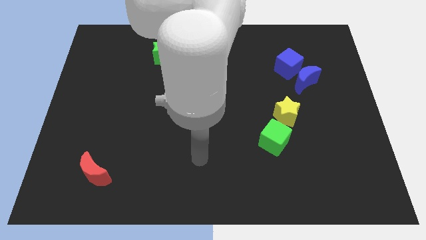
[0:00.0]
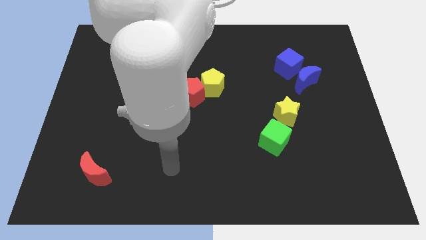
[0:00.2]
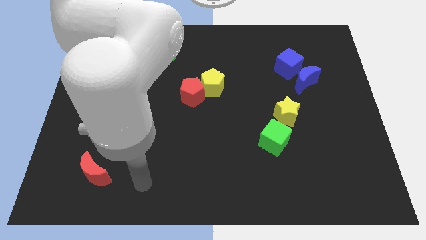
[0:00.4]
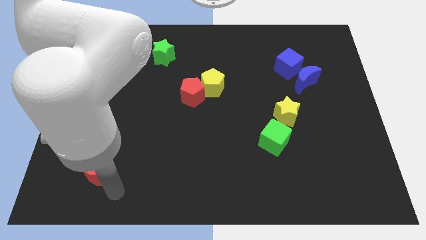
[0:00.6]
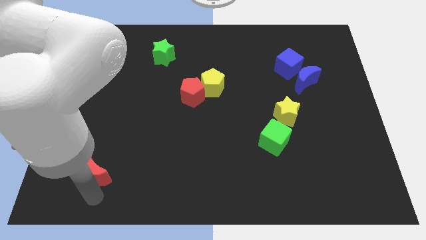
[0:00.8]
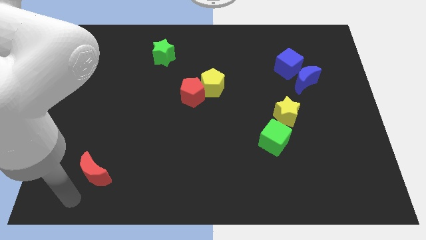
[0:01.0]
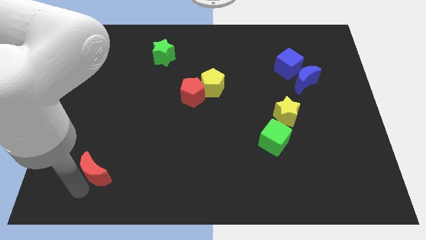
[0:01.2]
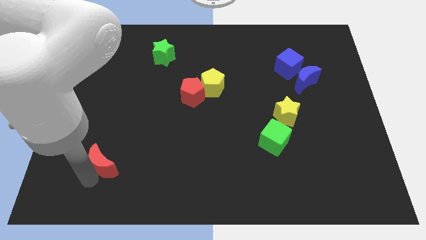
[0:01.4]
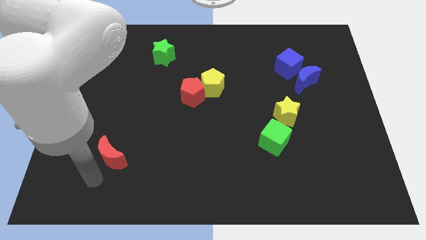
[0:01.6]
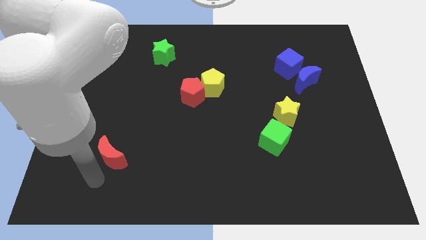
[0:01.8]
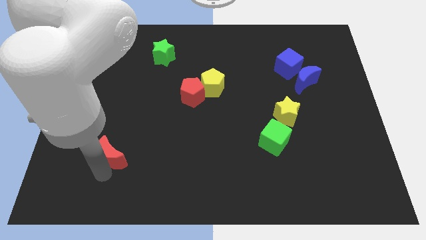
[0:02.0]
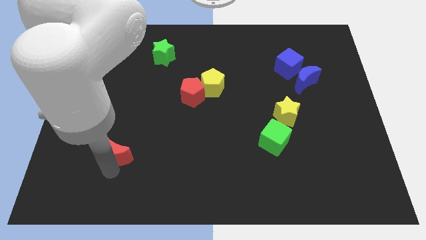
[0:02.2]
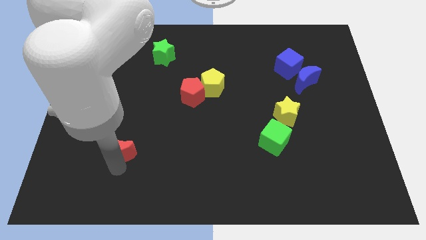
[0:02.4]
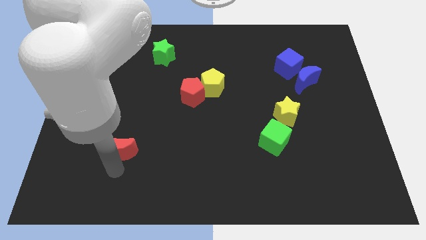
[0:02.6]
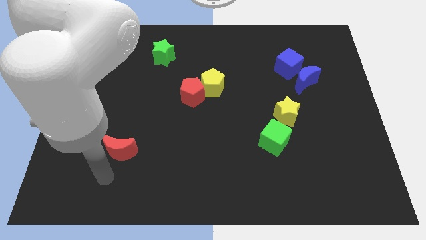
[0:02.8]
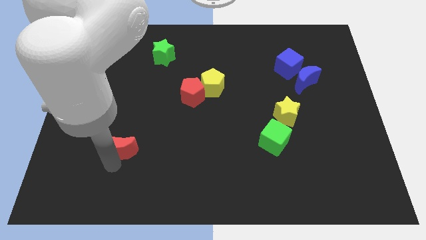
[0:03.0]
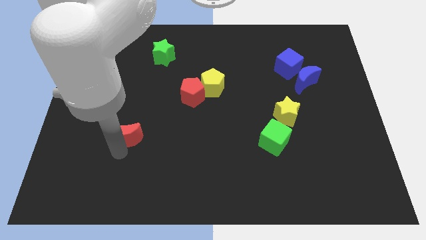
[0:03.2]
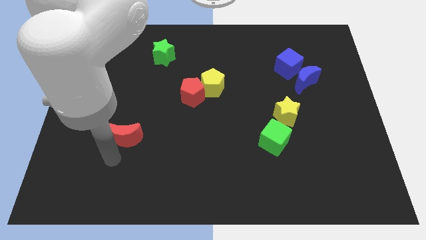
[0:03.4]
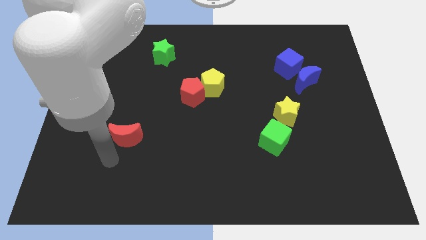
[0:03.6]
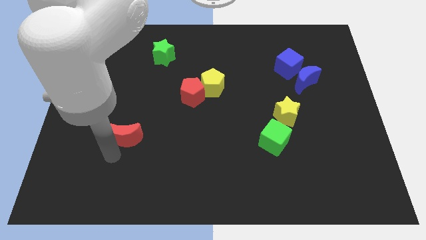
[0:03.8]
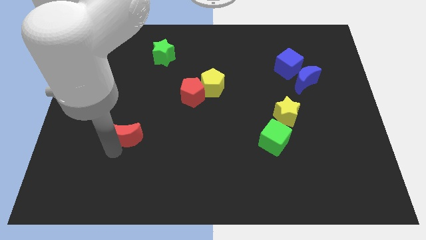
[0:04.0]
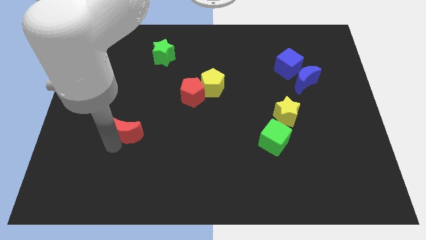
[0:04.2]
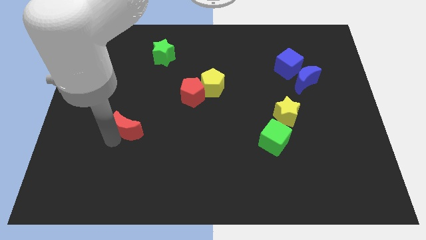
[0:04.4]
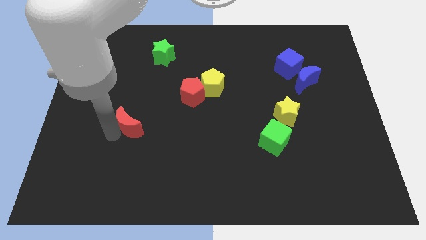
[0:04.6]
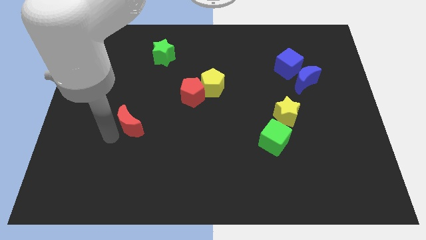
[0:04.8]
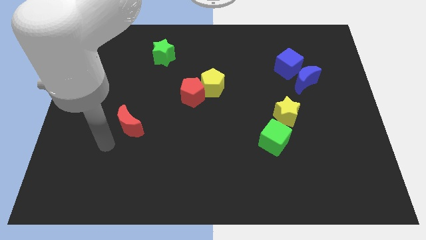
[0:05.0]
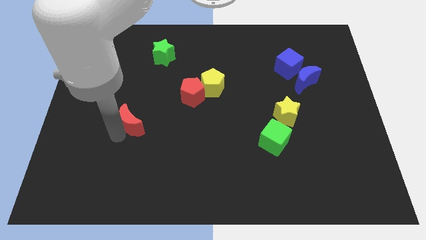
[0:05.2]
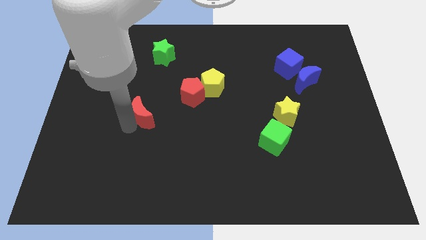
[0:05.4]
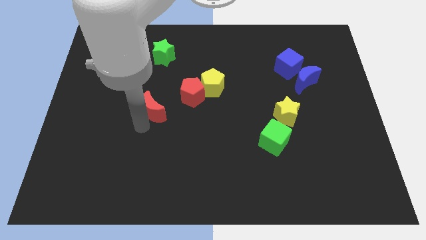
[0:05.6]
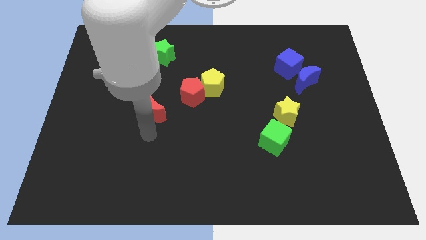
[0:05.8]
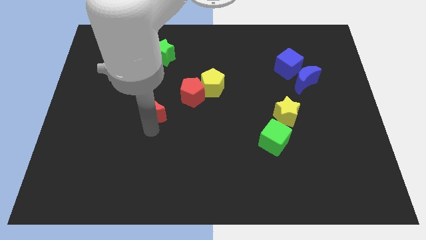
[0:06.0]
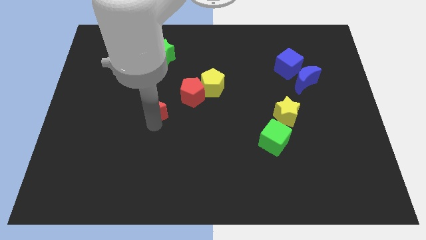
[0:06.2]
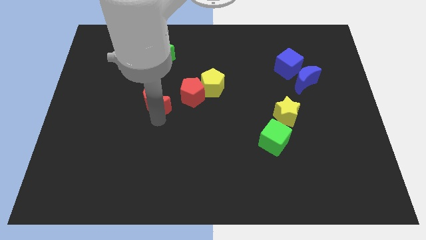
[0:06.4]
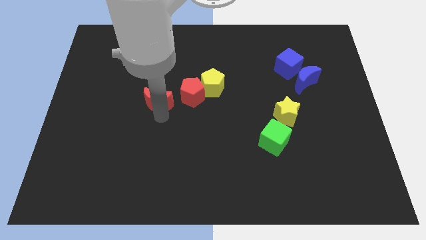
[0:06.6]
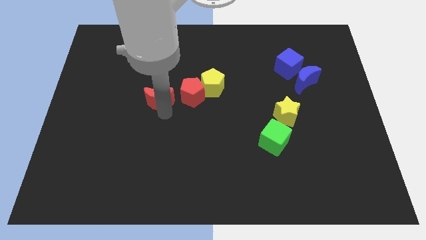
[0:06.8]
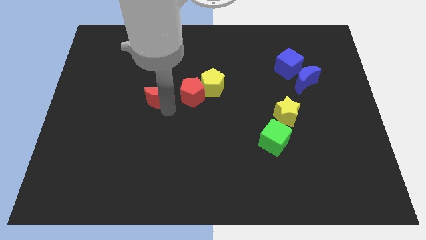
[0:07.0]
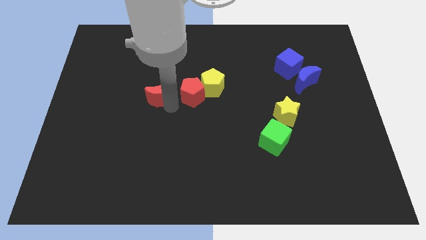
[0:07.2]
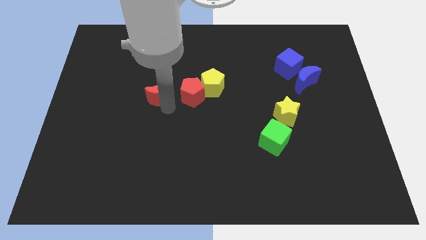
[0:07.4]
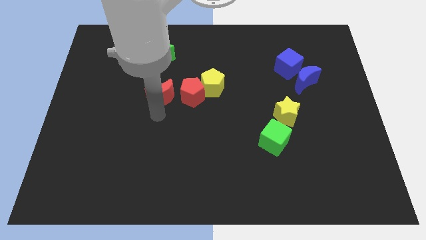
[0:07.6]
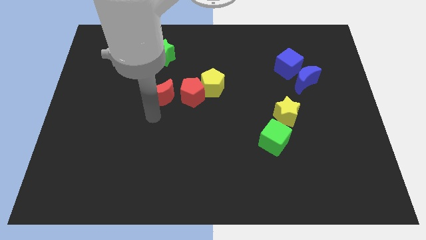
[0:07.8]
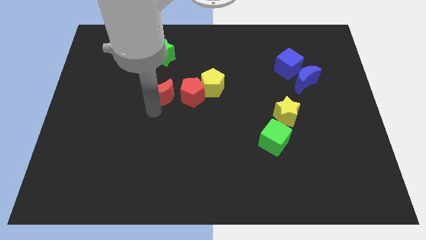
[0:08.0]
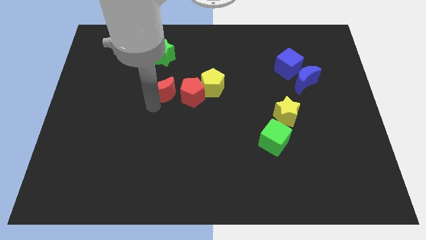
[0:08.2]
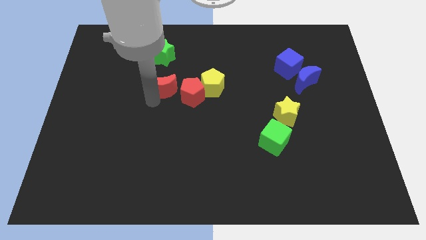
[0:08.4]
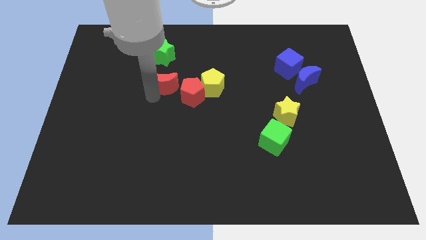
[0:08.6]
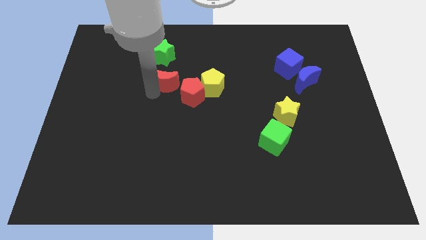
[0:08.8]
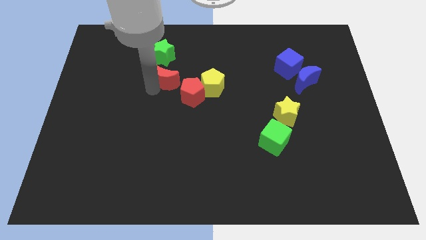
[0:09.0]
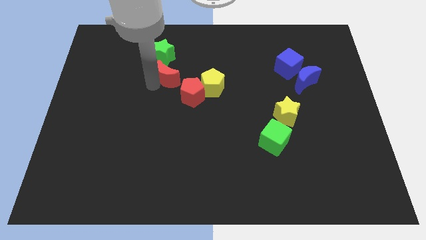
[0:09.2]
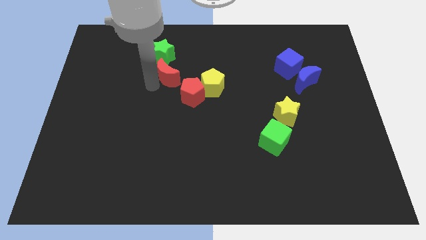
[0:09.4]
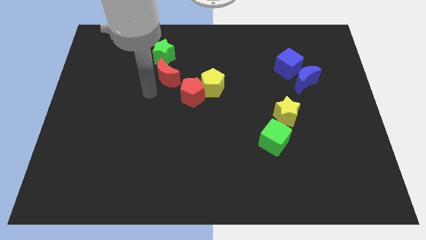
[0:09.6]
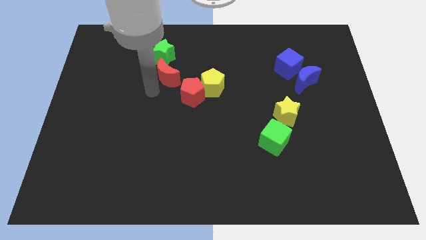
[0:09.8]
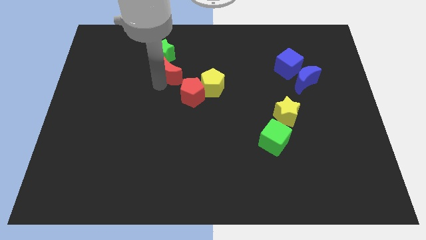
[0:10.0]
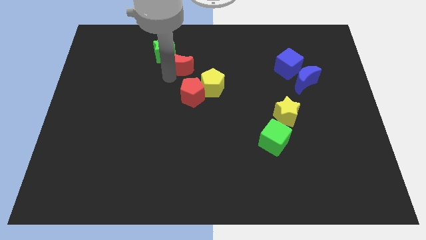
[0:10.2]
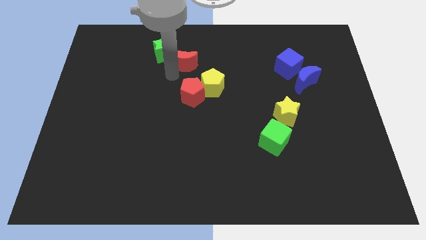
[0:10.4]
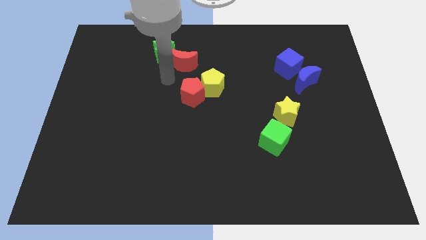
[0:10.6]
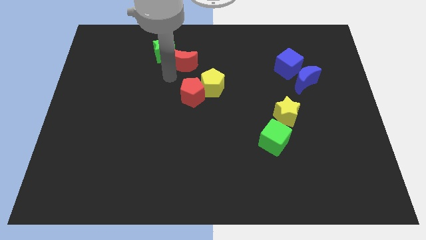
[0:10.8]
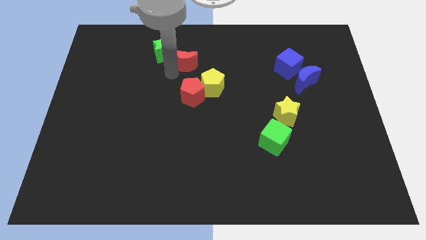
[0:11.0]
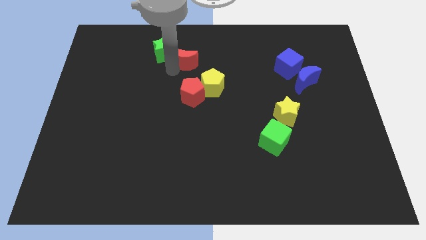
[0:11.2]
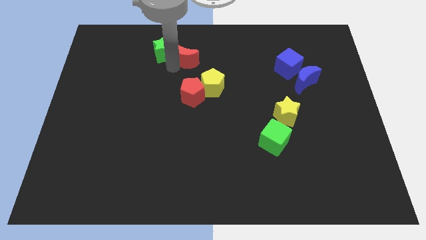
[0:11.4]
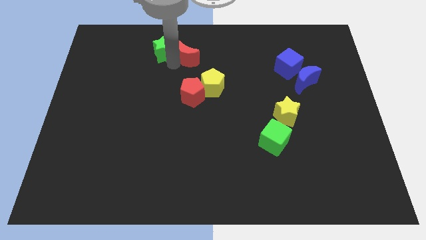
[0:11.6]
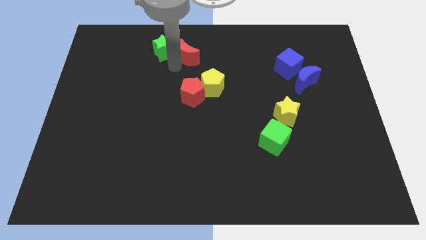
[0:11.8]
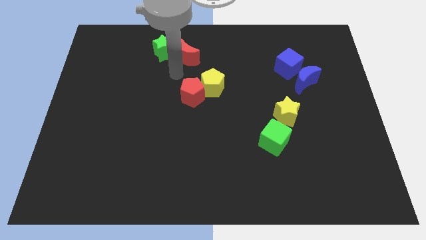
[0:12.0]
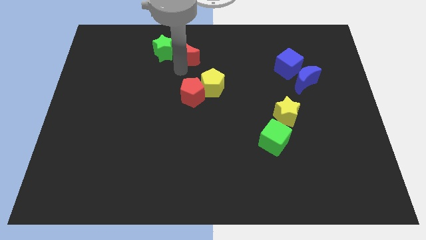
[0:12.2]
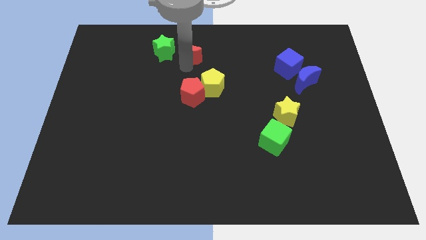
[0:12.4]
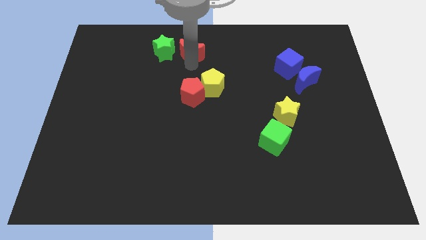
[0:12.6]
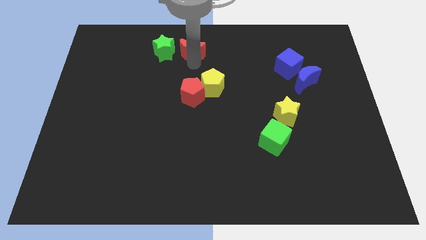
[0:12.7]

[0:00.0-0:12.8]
move the red moon to the towards your base
